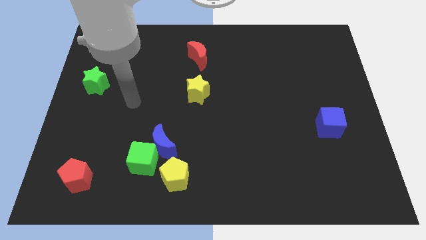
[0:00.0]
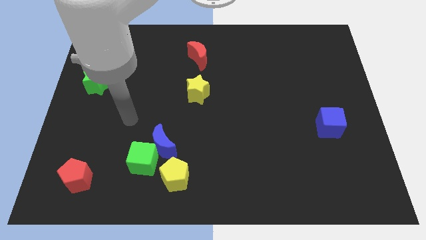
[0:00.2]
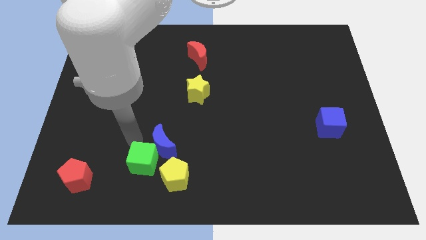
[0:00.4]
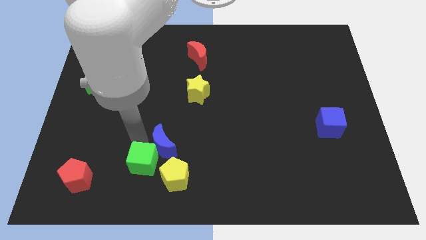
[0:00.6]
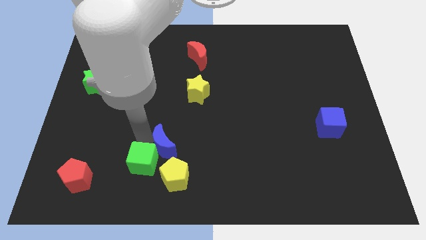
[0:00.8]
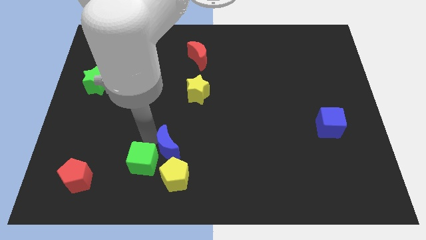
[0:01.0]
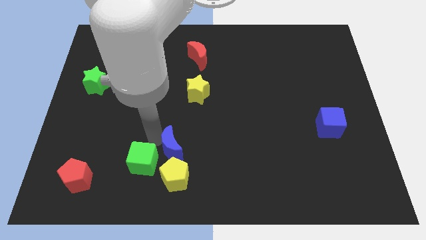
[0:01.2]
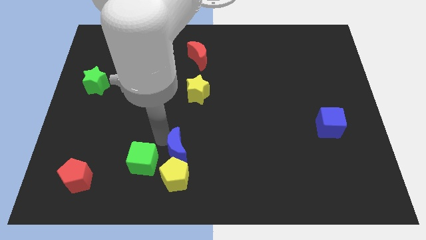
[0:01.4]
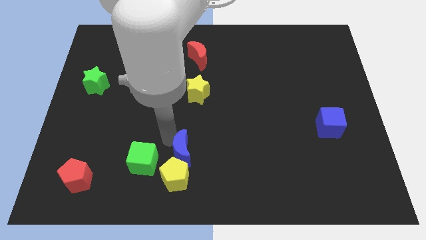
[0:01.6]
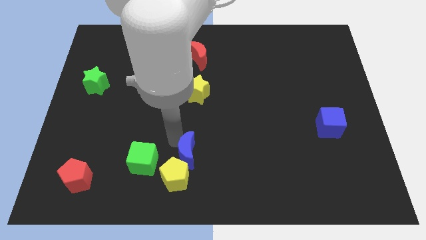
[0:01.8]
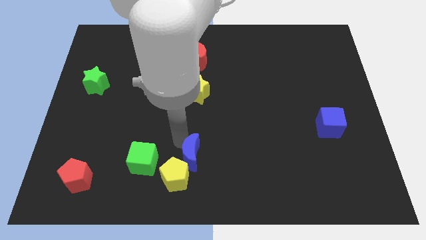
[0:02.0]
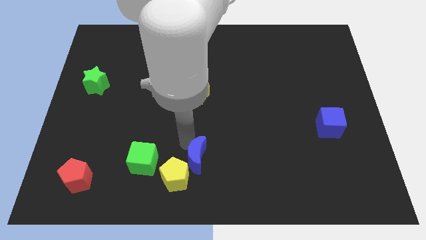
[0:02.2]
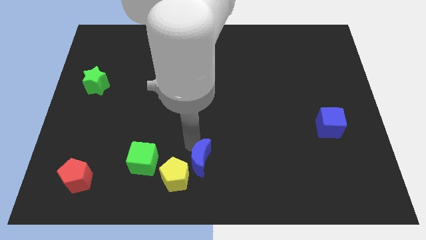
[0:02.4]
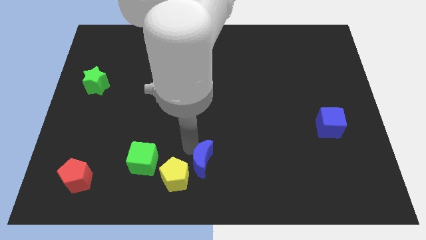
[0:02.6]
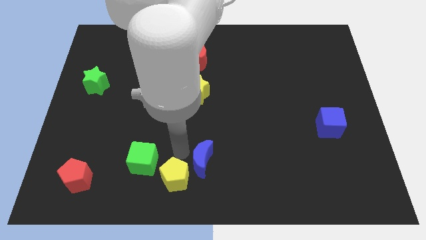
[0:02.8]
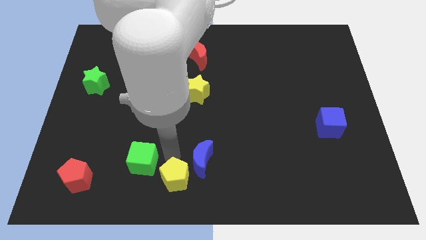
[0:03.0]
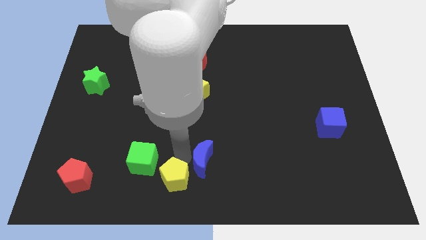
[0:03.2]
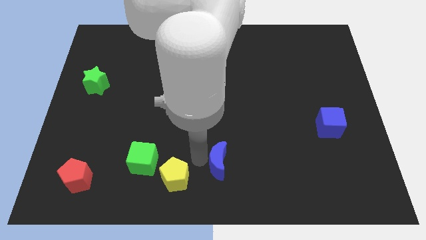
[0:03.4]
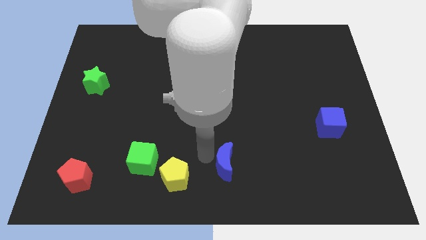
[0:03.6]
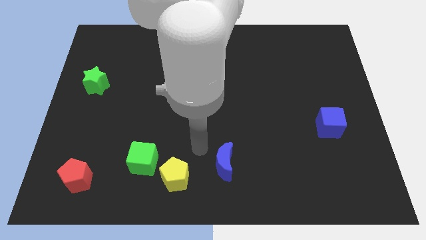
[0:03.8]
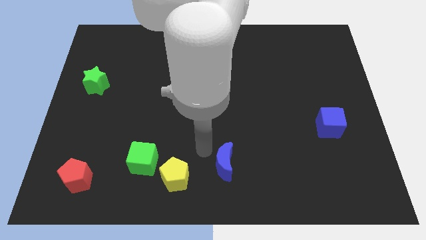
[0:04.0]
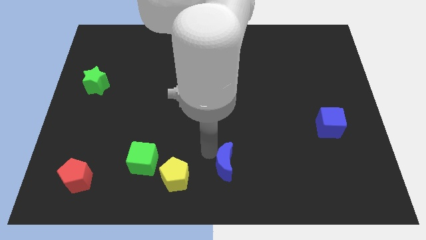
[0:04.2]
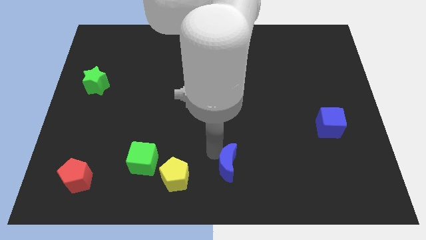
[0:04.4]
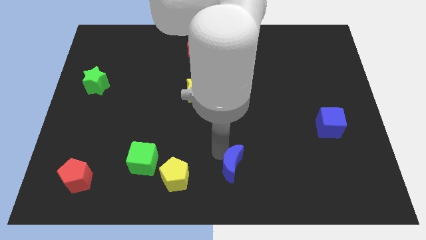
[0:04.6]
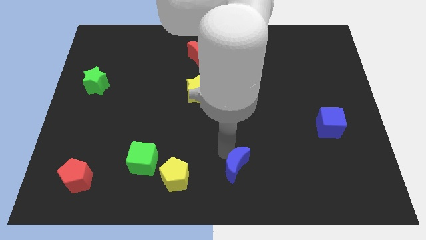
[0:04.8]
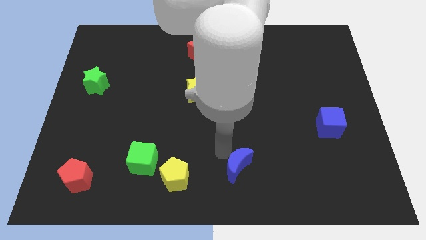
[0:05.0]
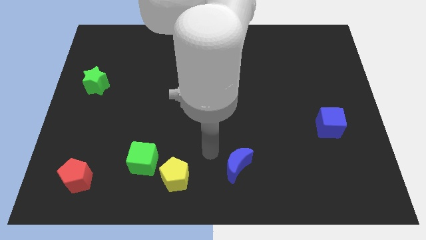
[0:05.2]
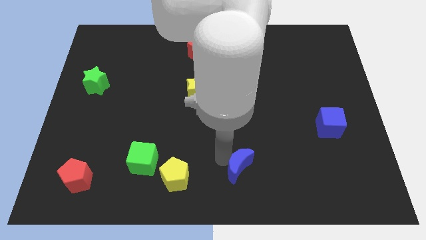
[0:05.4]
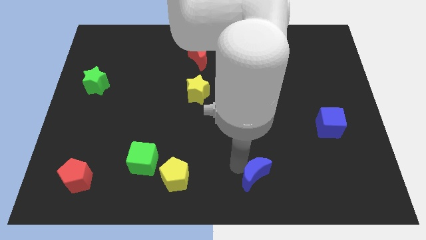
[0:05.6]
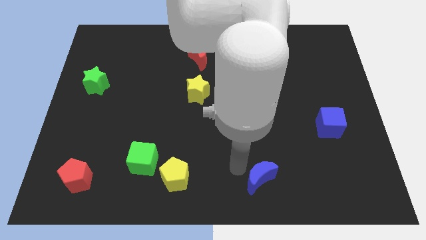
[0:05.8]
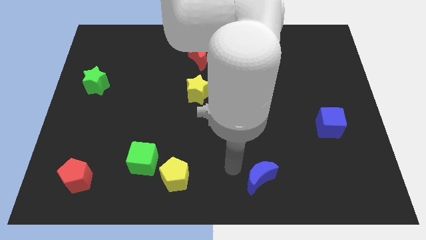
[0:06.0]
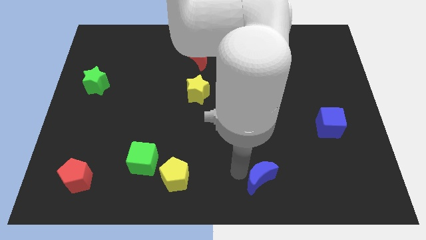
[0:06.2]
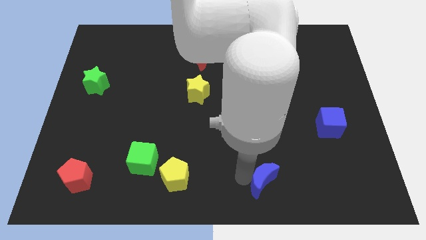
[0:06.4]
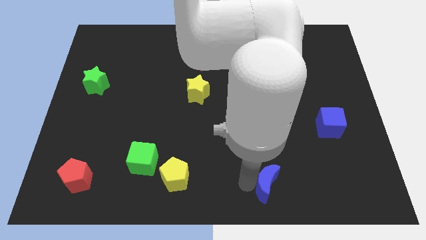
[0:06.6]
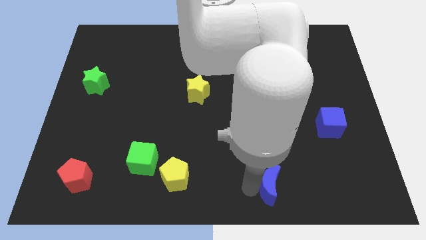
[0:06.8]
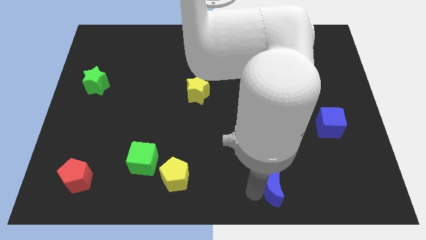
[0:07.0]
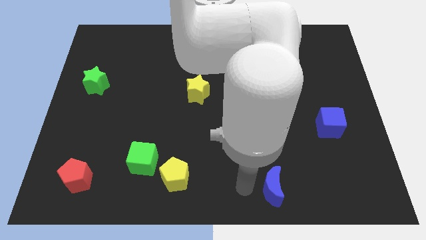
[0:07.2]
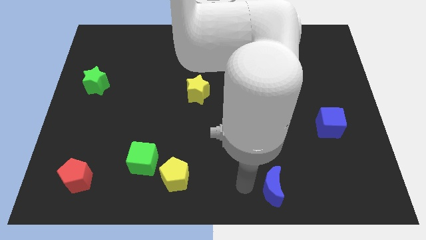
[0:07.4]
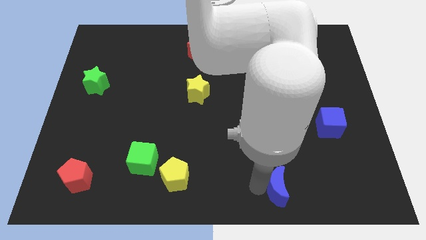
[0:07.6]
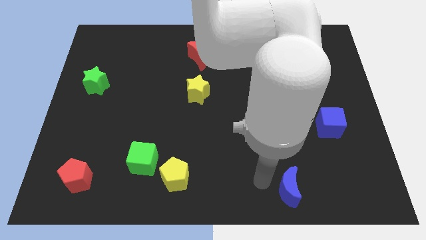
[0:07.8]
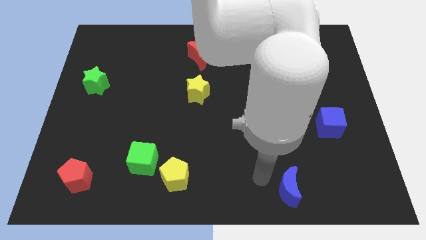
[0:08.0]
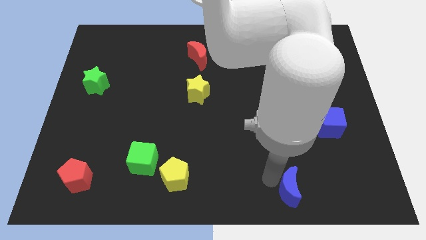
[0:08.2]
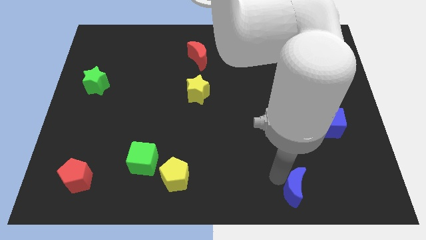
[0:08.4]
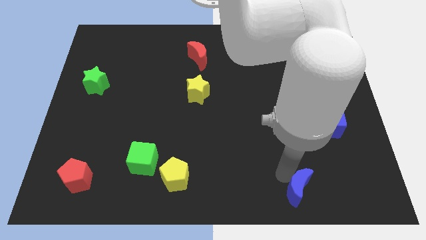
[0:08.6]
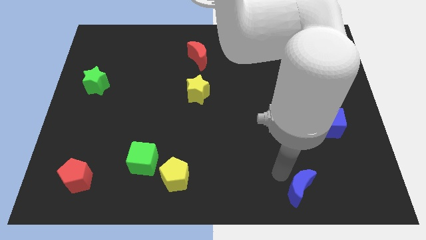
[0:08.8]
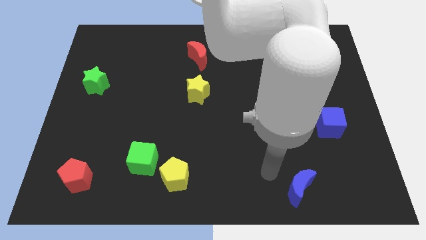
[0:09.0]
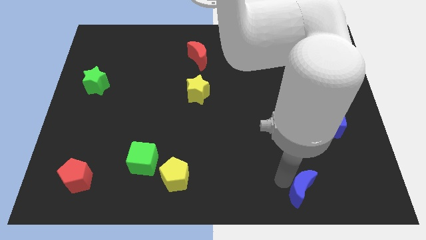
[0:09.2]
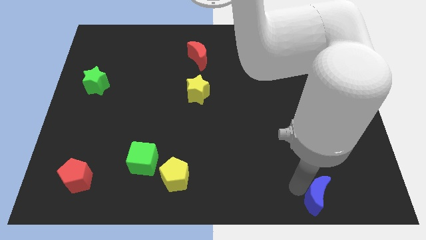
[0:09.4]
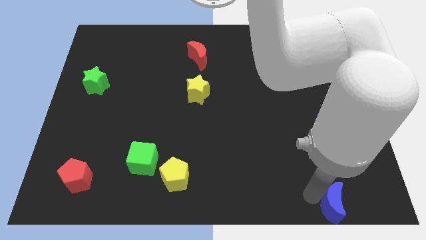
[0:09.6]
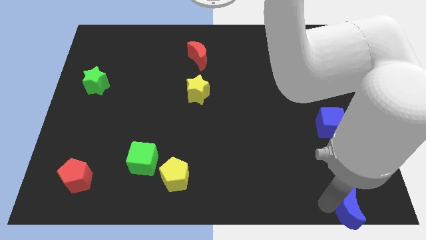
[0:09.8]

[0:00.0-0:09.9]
put the blue moon to the bottom right of the board

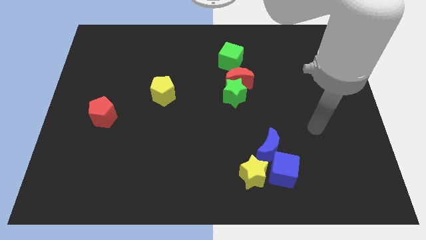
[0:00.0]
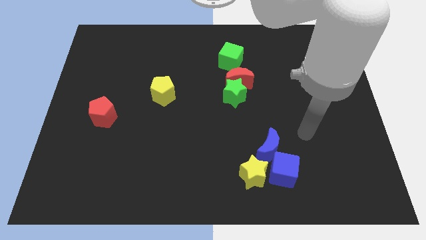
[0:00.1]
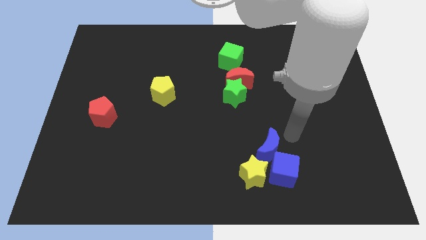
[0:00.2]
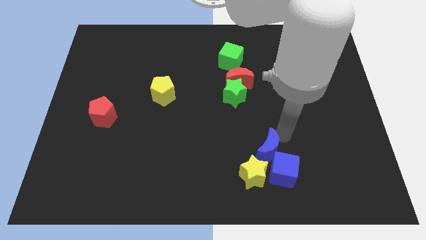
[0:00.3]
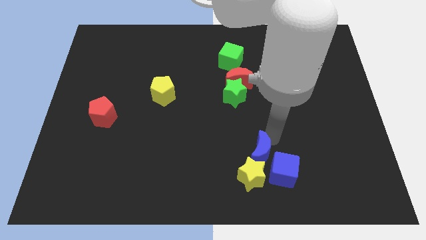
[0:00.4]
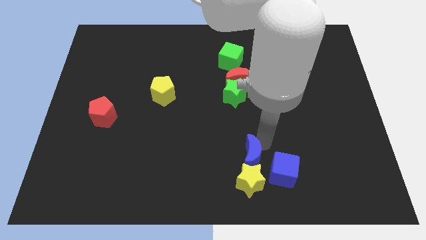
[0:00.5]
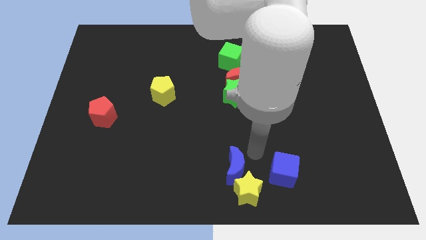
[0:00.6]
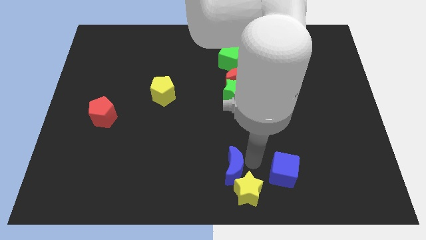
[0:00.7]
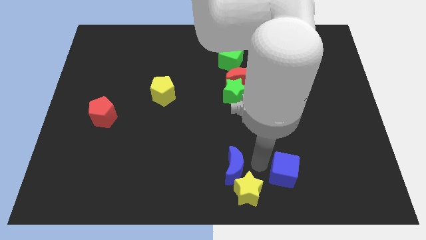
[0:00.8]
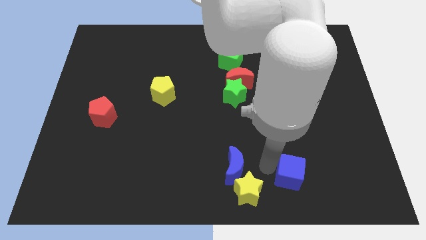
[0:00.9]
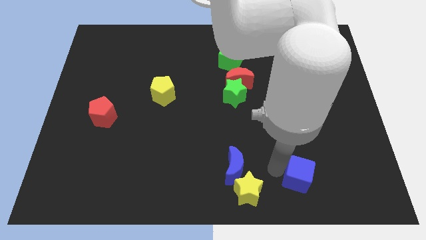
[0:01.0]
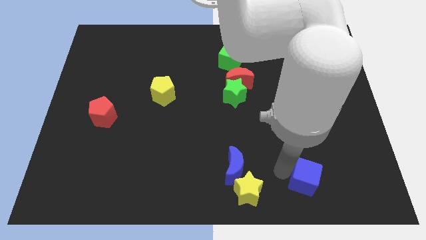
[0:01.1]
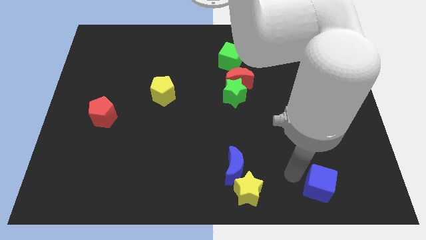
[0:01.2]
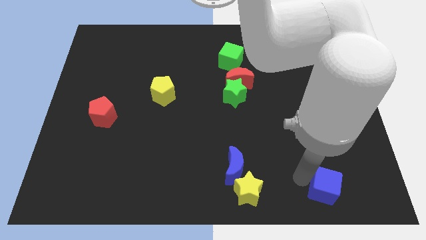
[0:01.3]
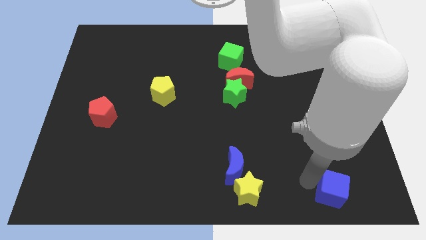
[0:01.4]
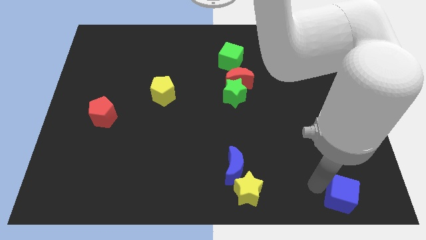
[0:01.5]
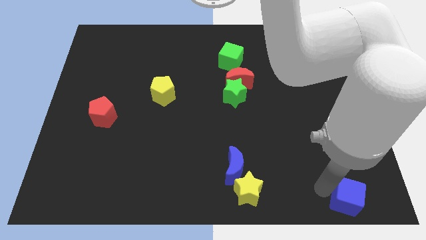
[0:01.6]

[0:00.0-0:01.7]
put the blue cube to the lower right corner
